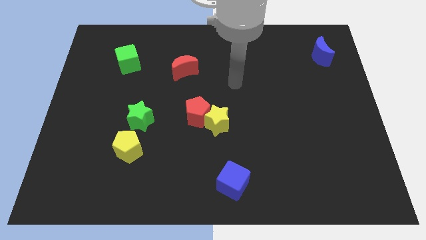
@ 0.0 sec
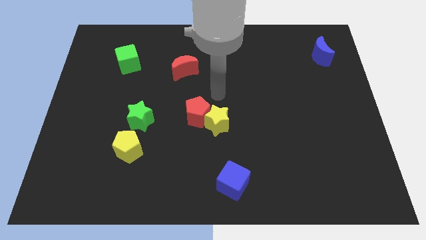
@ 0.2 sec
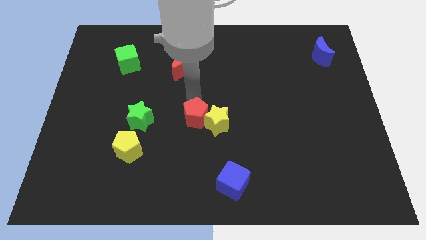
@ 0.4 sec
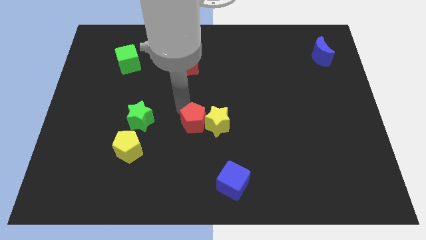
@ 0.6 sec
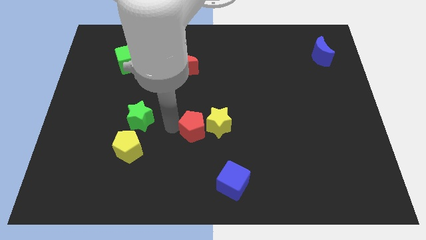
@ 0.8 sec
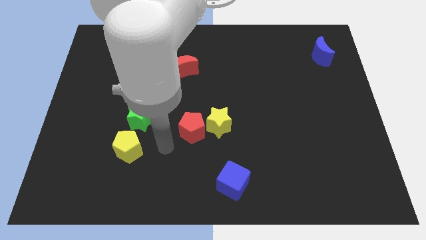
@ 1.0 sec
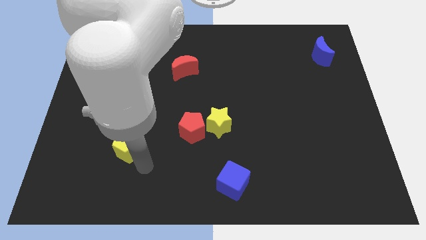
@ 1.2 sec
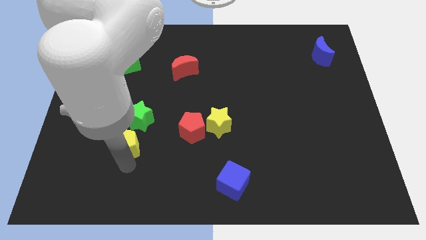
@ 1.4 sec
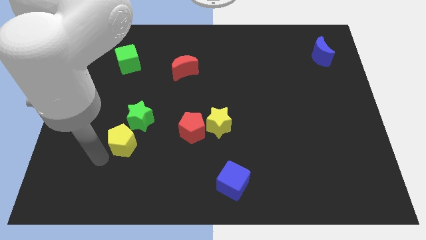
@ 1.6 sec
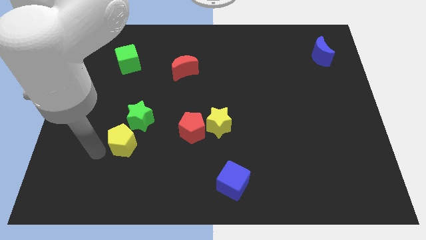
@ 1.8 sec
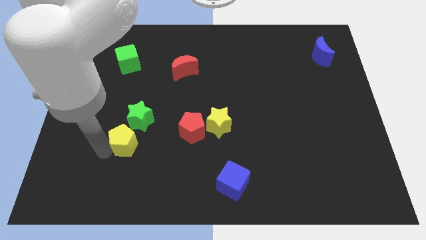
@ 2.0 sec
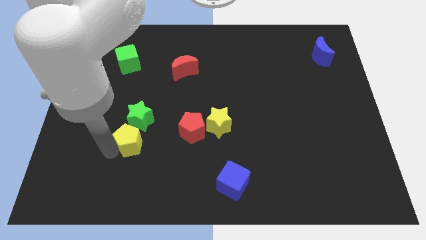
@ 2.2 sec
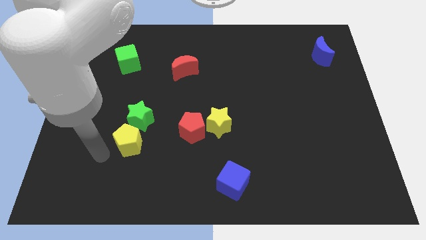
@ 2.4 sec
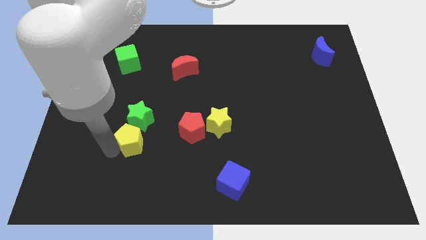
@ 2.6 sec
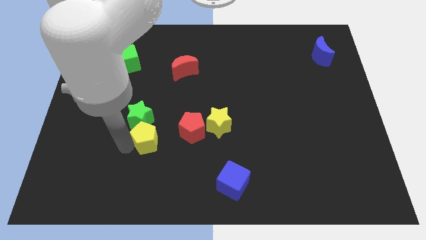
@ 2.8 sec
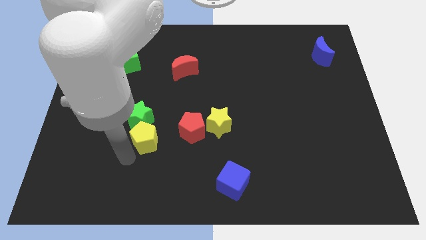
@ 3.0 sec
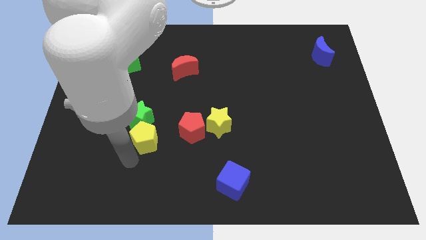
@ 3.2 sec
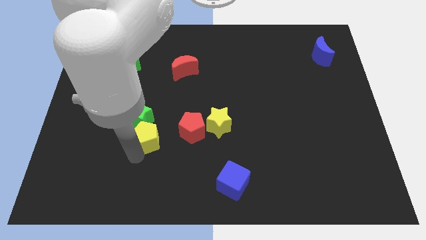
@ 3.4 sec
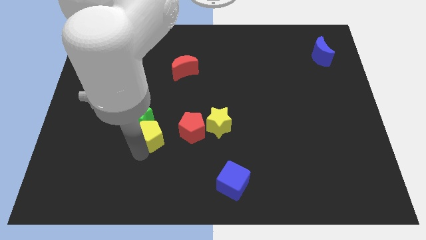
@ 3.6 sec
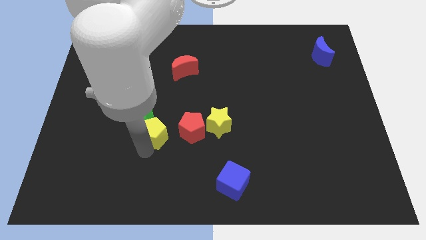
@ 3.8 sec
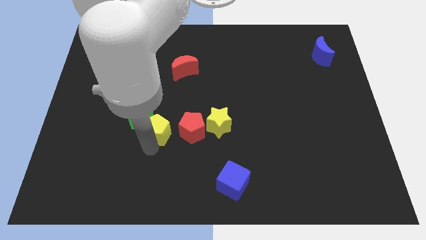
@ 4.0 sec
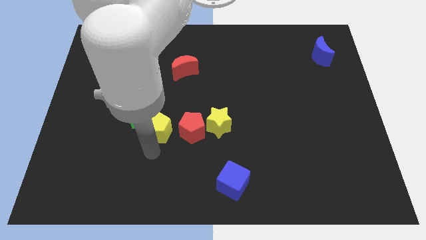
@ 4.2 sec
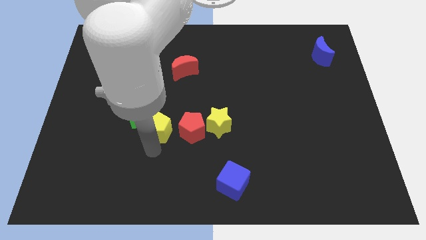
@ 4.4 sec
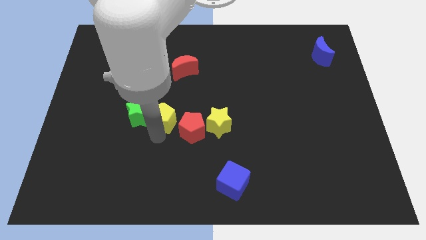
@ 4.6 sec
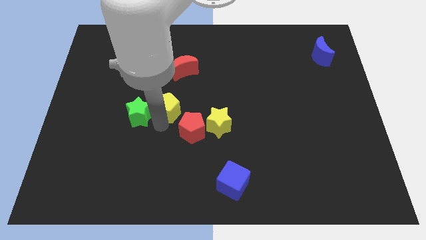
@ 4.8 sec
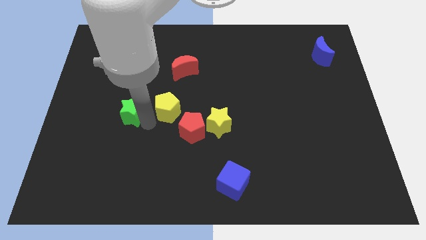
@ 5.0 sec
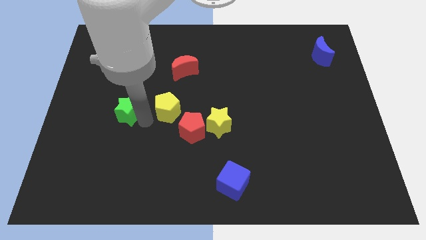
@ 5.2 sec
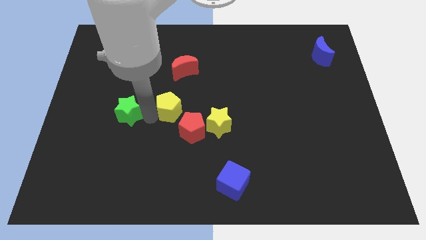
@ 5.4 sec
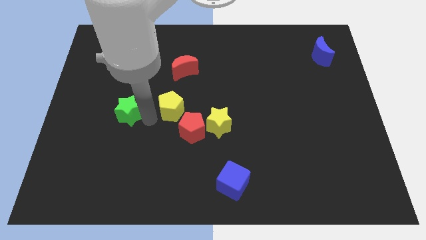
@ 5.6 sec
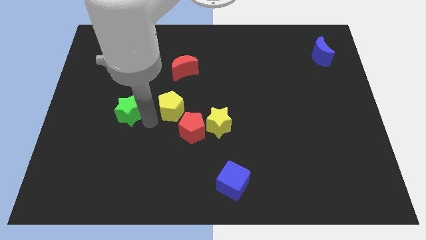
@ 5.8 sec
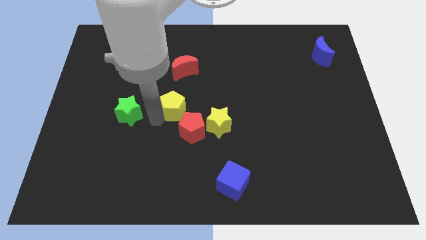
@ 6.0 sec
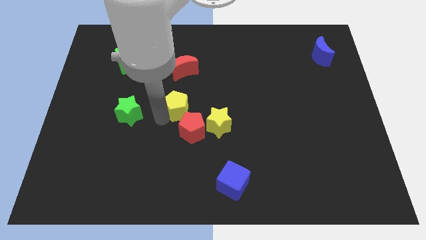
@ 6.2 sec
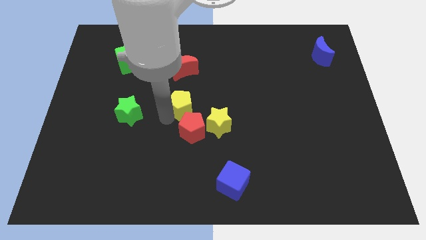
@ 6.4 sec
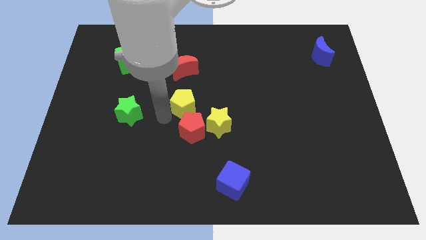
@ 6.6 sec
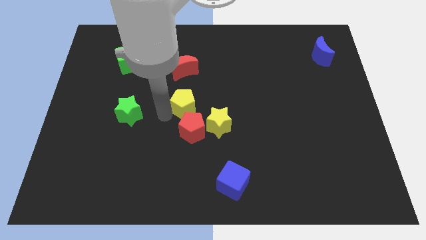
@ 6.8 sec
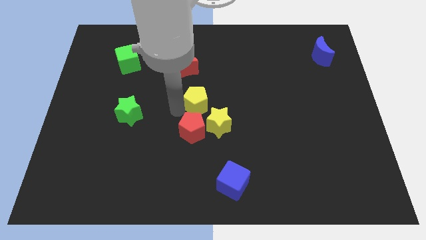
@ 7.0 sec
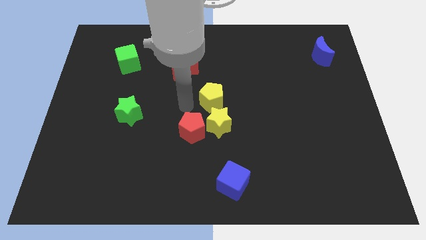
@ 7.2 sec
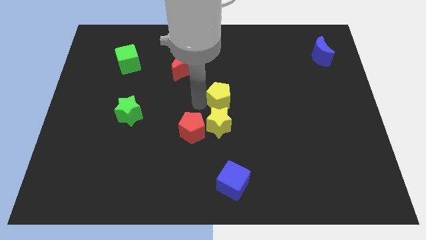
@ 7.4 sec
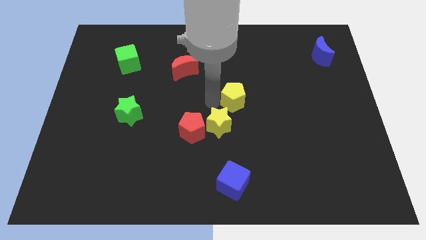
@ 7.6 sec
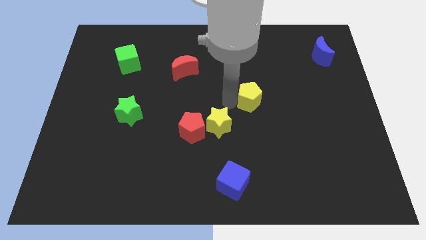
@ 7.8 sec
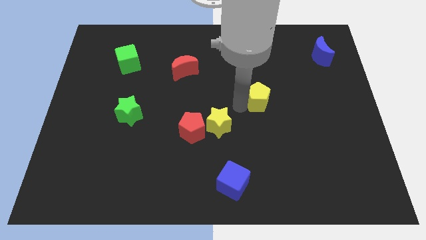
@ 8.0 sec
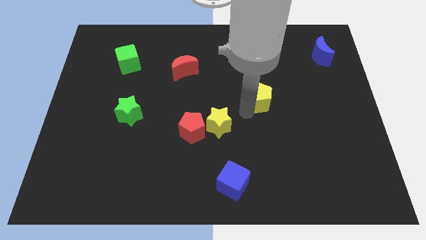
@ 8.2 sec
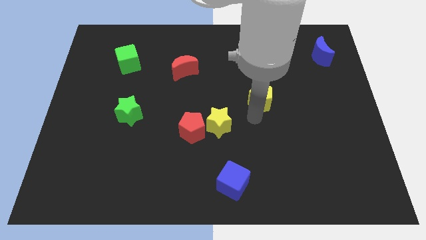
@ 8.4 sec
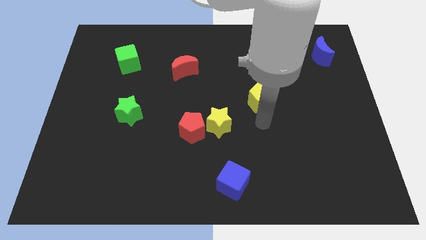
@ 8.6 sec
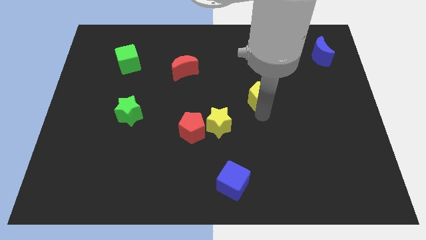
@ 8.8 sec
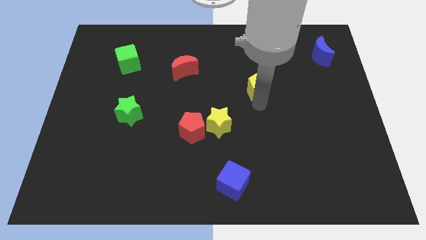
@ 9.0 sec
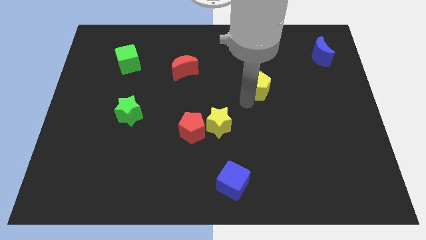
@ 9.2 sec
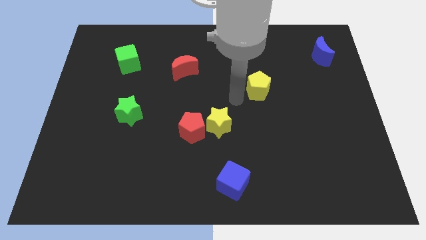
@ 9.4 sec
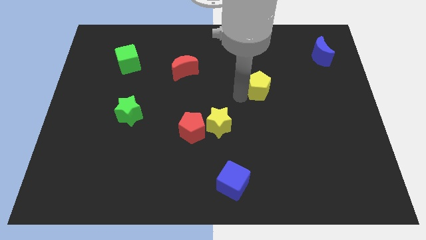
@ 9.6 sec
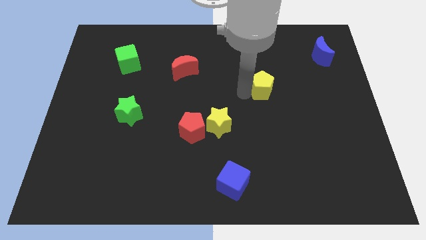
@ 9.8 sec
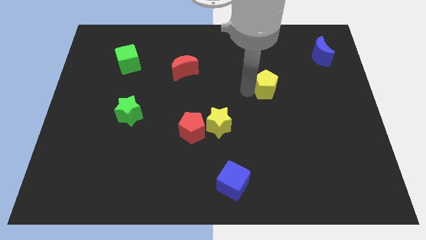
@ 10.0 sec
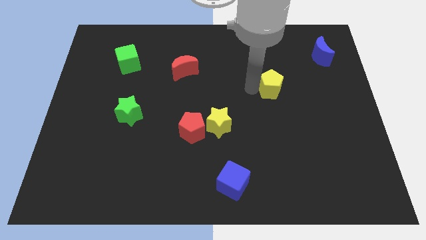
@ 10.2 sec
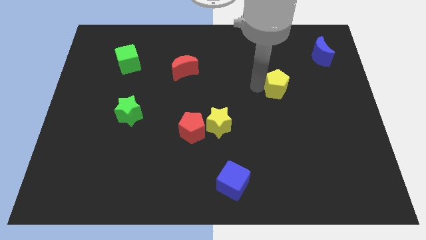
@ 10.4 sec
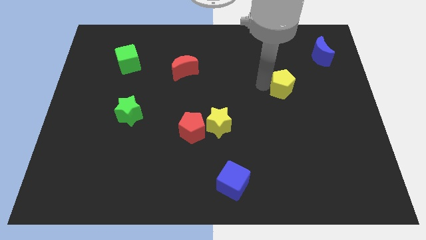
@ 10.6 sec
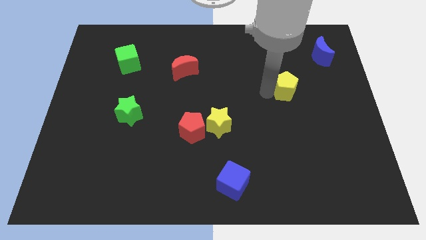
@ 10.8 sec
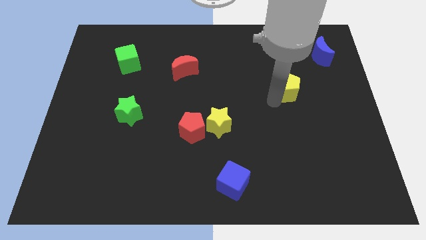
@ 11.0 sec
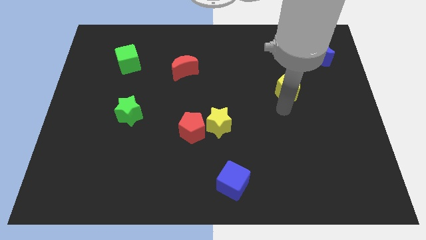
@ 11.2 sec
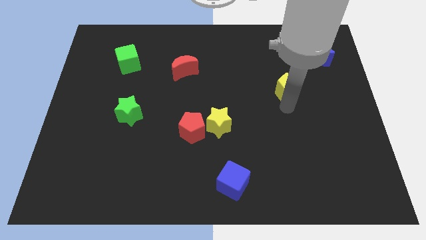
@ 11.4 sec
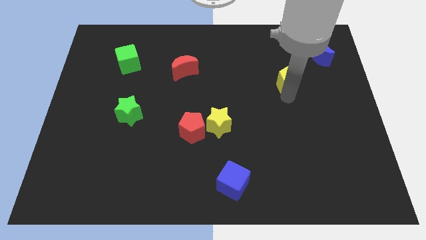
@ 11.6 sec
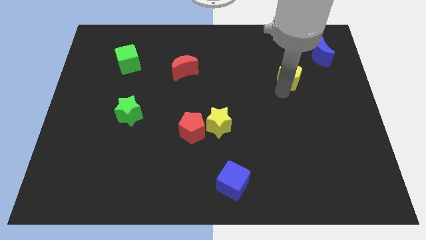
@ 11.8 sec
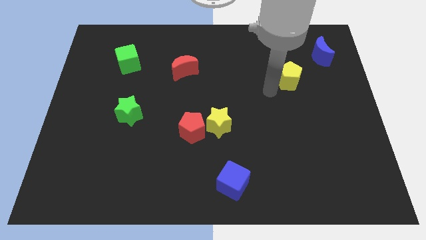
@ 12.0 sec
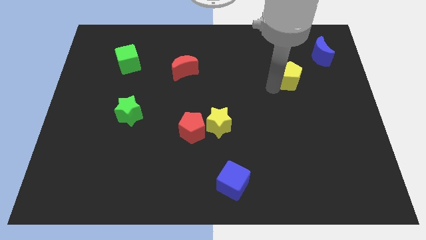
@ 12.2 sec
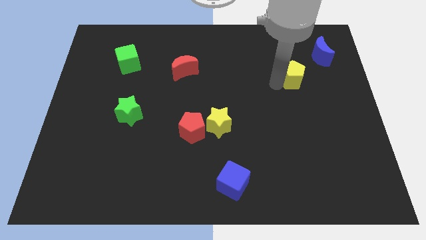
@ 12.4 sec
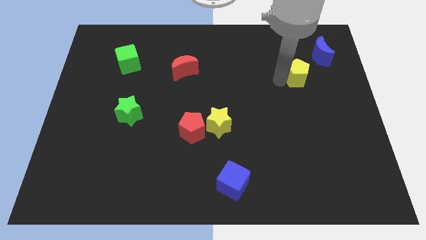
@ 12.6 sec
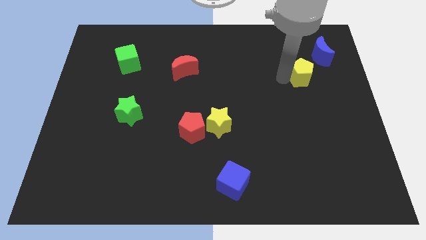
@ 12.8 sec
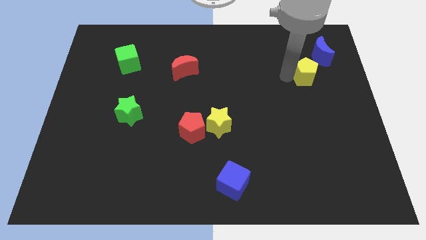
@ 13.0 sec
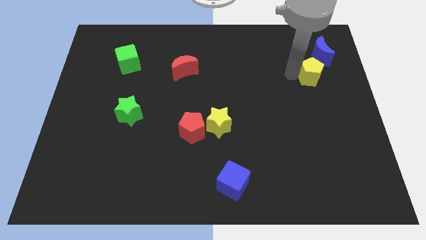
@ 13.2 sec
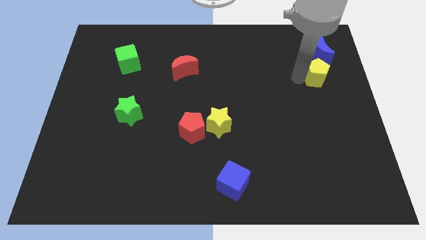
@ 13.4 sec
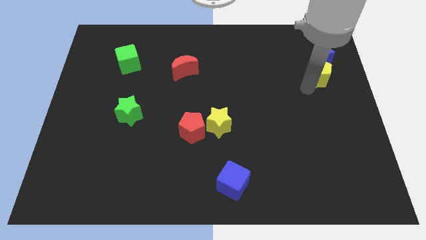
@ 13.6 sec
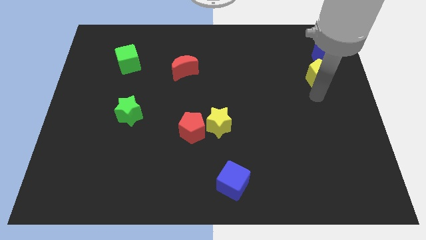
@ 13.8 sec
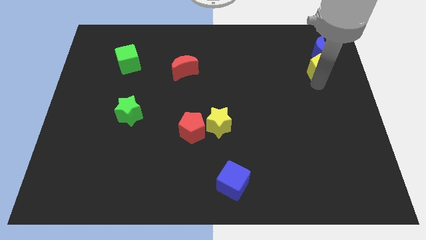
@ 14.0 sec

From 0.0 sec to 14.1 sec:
move the yellow pentagon to the blue moon
